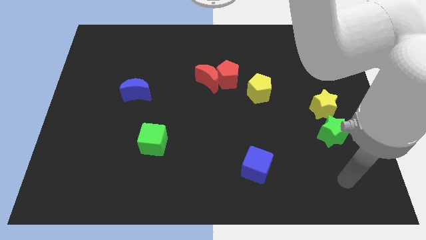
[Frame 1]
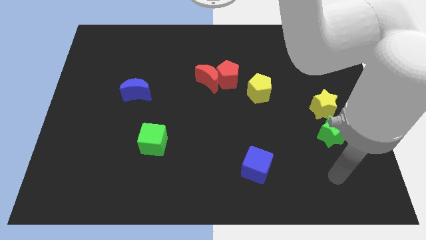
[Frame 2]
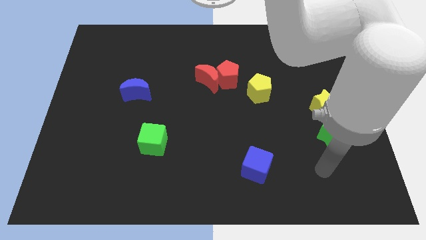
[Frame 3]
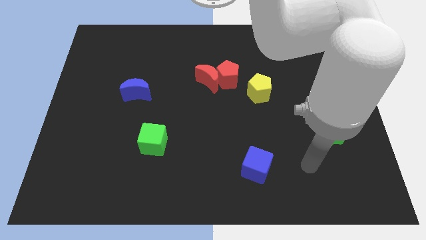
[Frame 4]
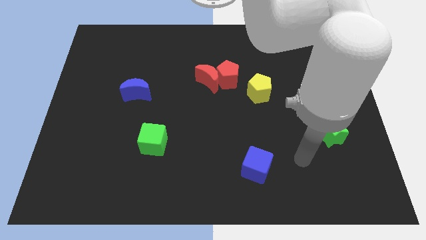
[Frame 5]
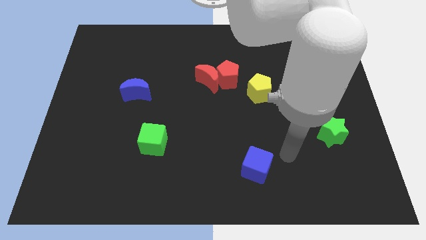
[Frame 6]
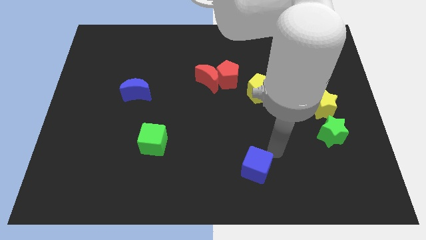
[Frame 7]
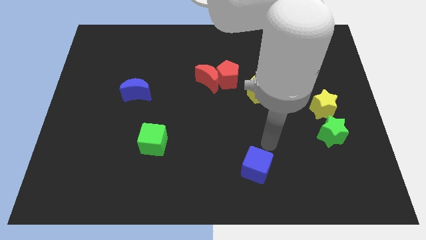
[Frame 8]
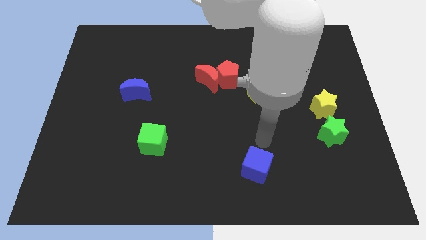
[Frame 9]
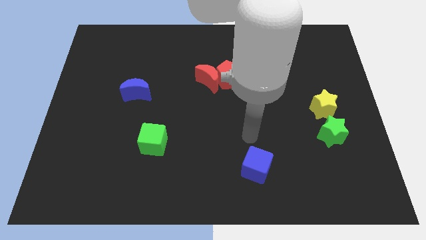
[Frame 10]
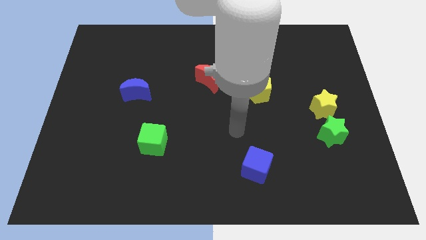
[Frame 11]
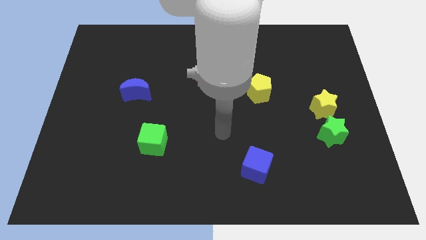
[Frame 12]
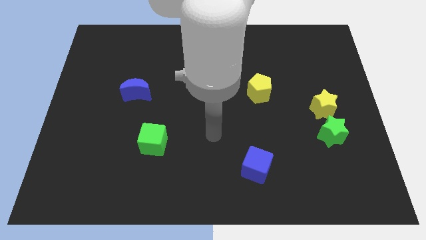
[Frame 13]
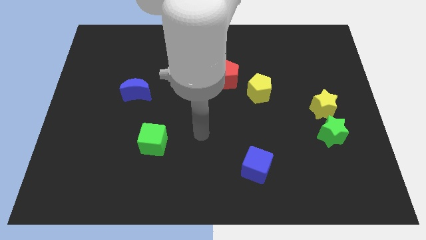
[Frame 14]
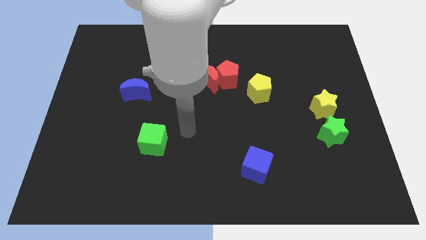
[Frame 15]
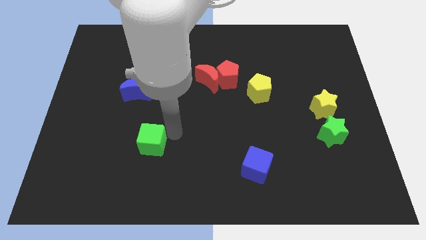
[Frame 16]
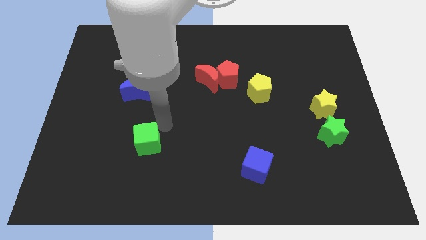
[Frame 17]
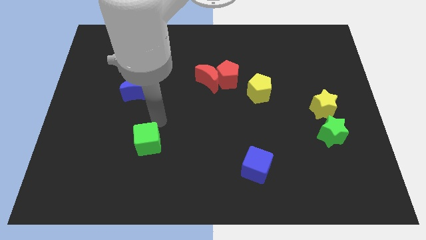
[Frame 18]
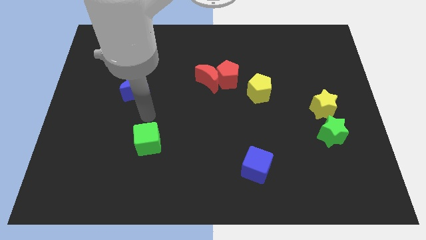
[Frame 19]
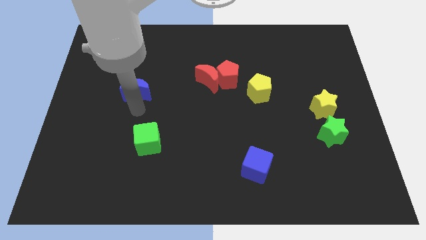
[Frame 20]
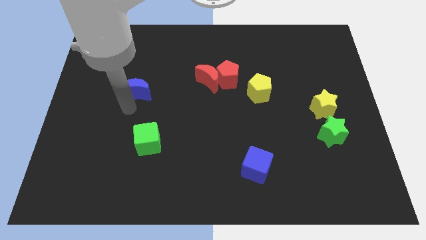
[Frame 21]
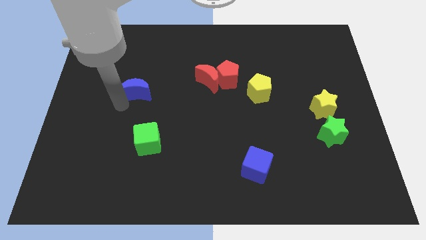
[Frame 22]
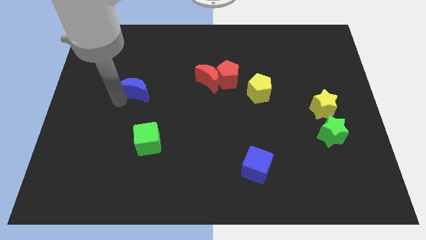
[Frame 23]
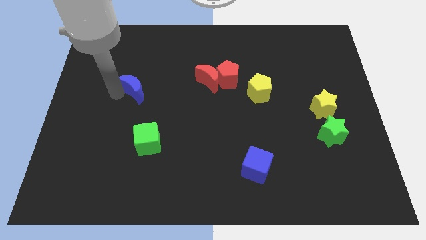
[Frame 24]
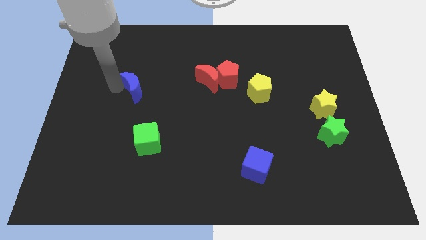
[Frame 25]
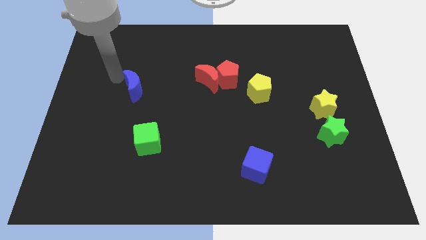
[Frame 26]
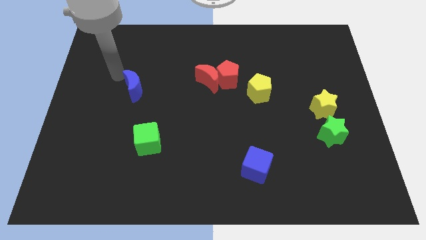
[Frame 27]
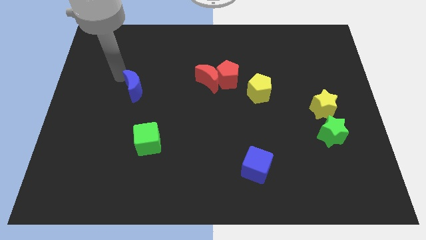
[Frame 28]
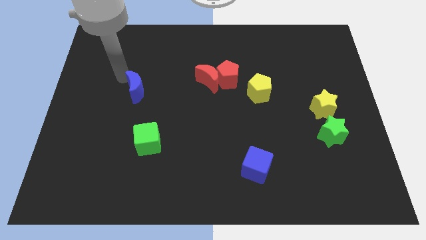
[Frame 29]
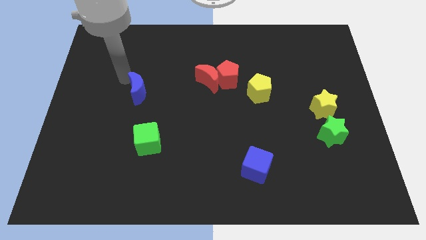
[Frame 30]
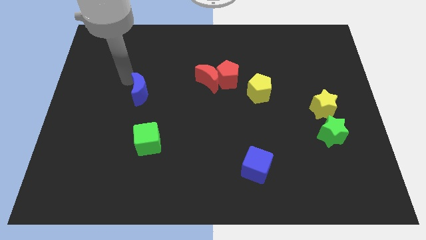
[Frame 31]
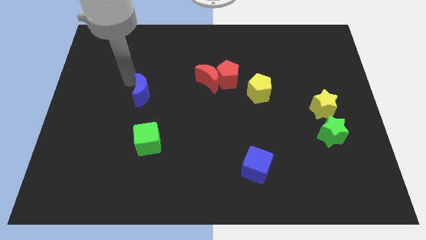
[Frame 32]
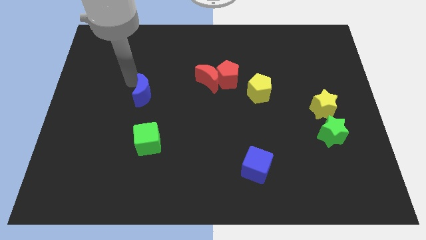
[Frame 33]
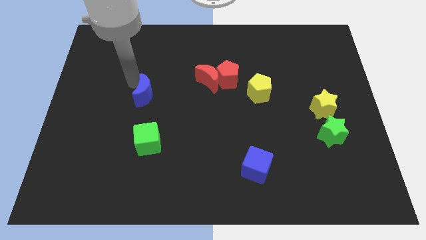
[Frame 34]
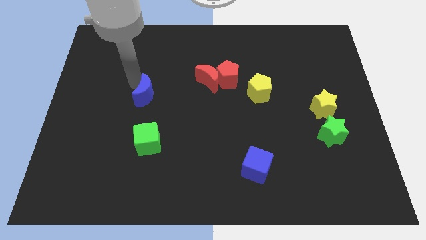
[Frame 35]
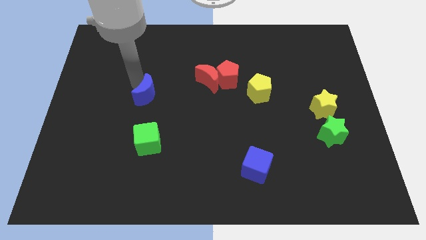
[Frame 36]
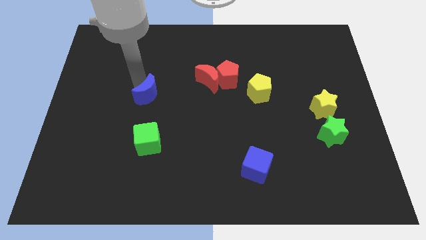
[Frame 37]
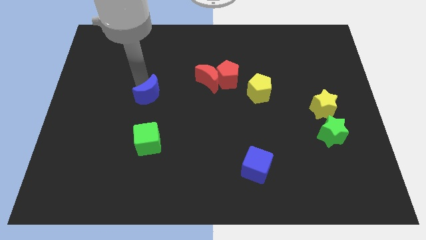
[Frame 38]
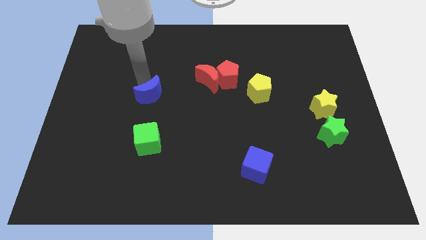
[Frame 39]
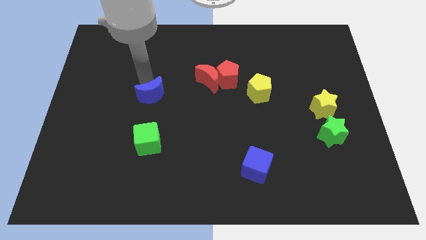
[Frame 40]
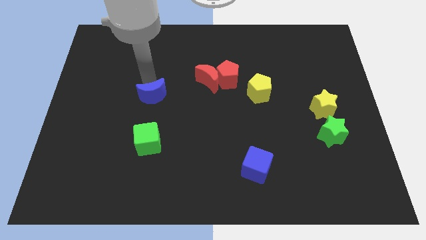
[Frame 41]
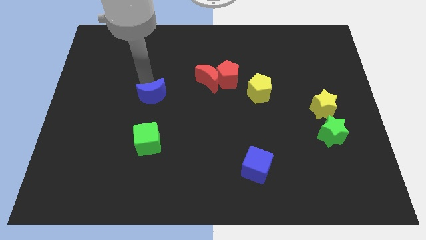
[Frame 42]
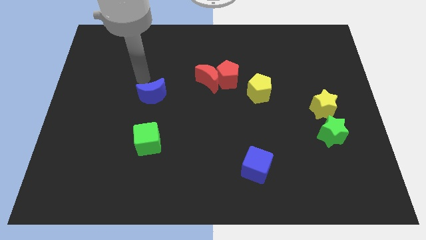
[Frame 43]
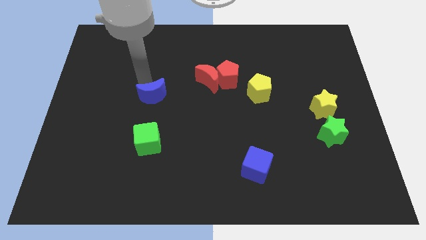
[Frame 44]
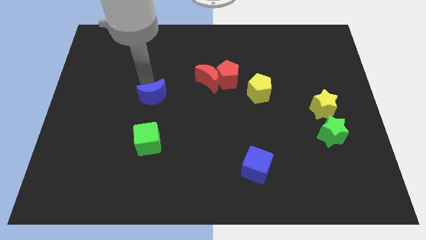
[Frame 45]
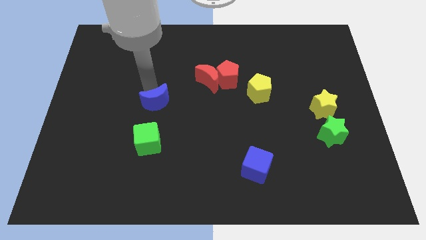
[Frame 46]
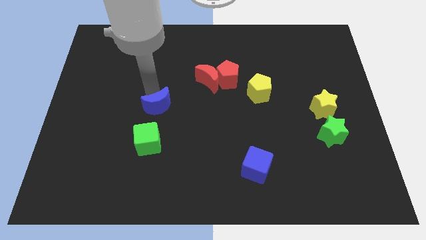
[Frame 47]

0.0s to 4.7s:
slide the blue moon down and to the right diagonally a little

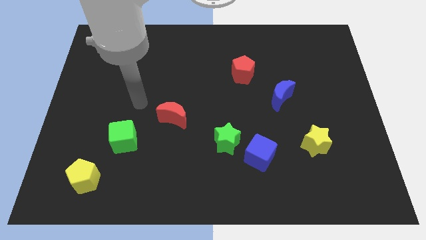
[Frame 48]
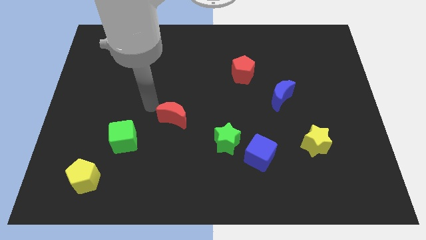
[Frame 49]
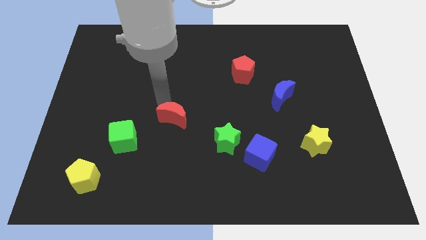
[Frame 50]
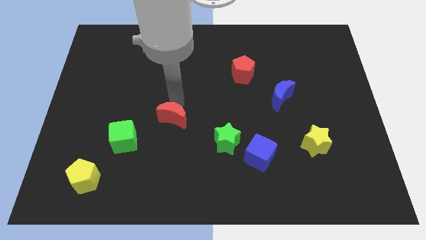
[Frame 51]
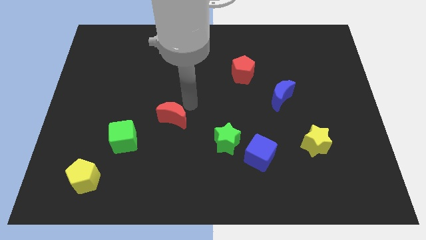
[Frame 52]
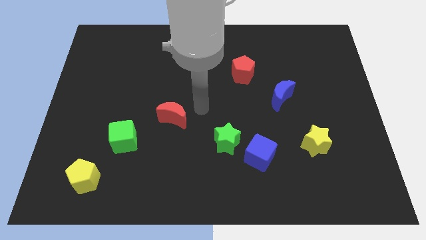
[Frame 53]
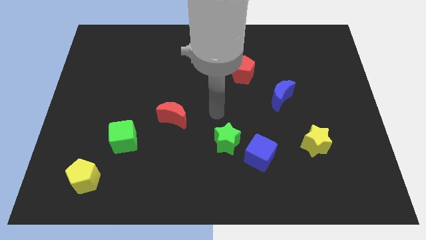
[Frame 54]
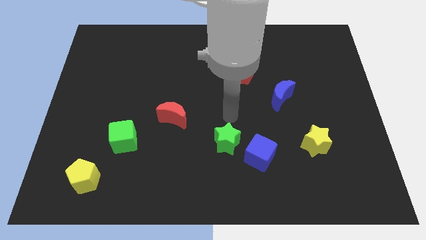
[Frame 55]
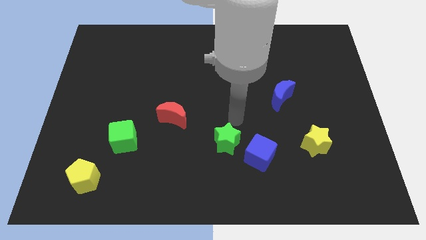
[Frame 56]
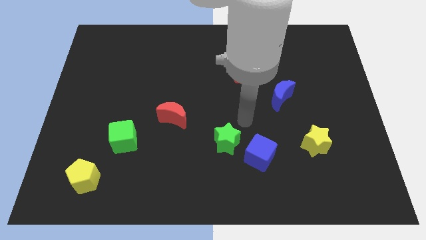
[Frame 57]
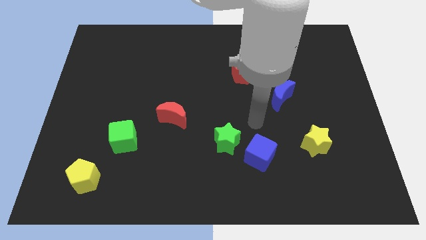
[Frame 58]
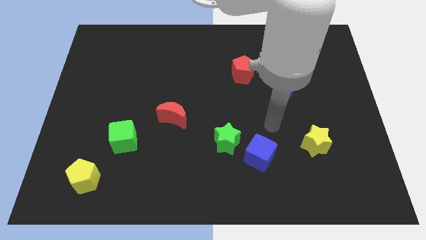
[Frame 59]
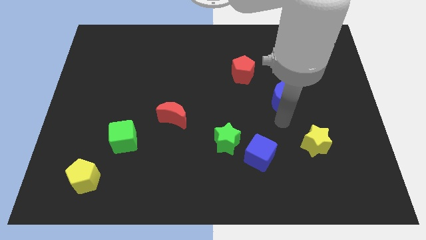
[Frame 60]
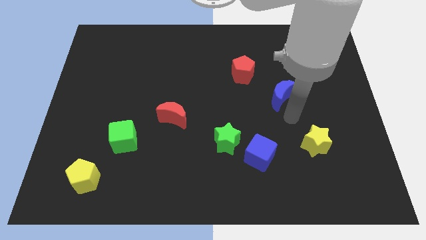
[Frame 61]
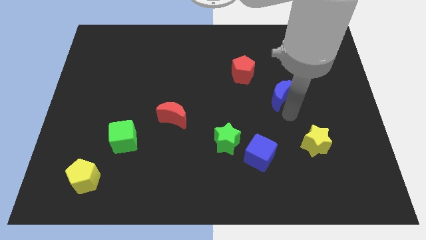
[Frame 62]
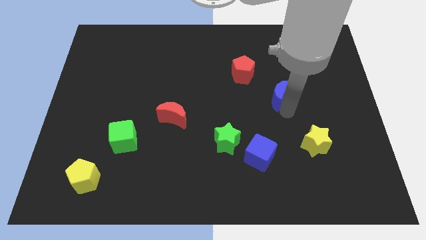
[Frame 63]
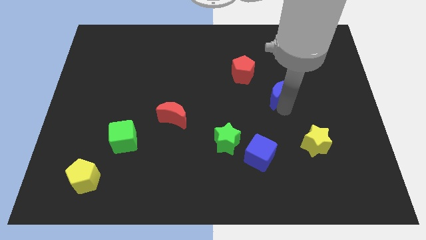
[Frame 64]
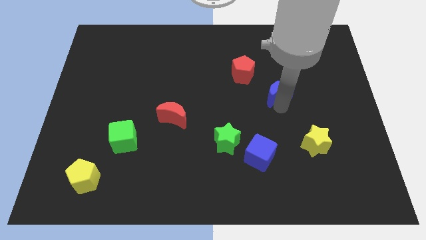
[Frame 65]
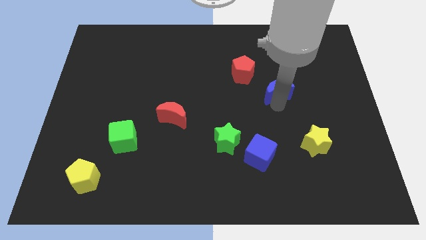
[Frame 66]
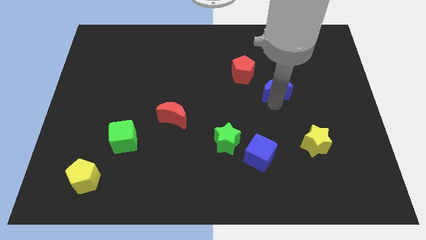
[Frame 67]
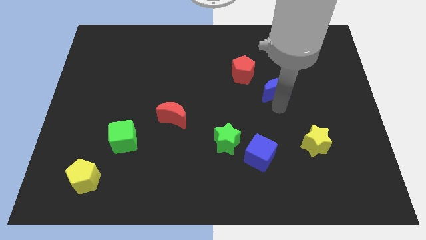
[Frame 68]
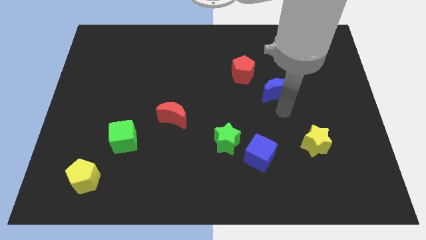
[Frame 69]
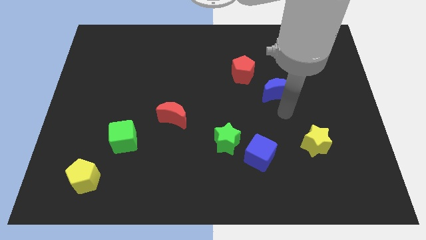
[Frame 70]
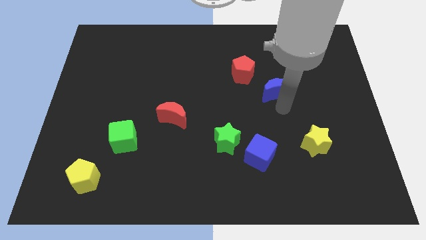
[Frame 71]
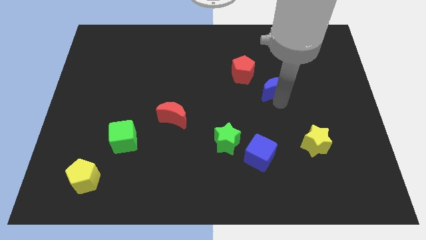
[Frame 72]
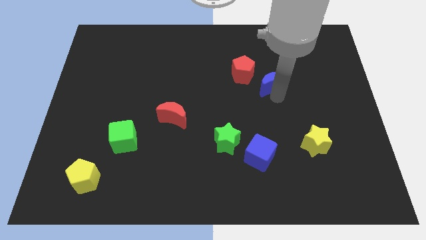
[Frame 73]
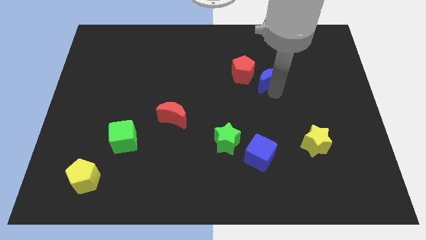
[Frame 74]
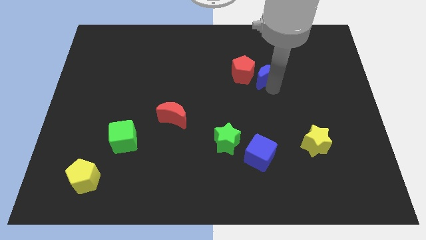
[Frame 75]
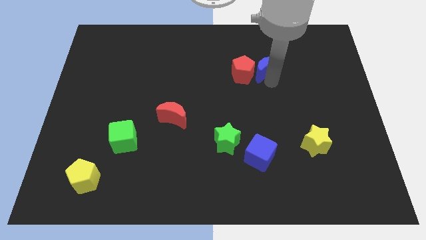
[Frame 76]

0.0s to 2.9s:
push the blue moon up and then left slightly

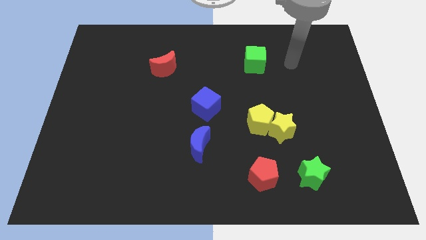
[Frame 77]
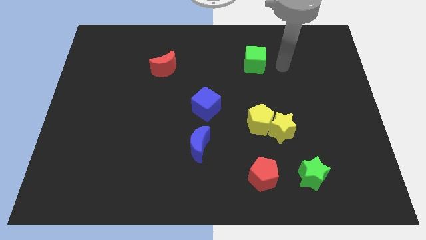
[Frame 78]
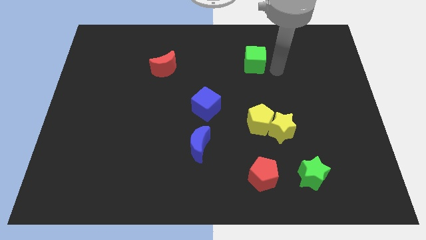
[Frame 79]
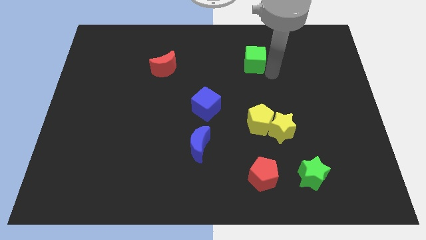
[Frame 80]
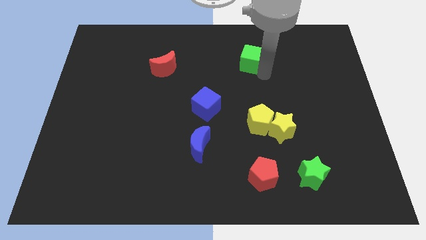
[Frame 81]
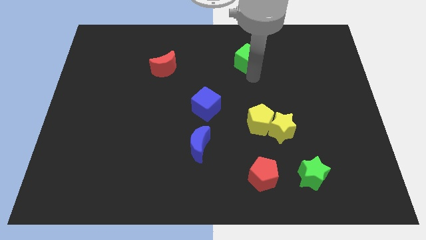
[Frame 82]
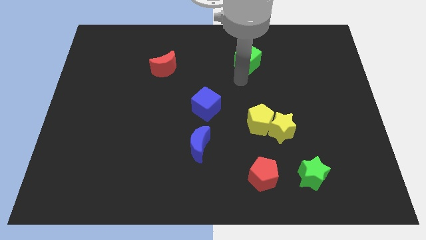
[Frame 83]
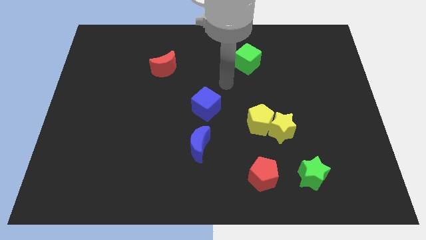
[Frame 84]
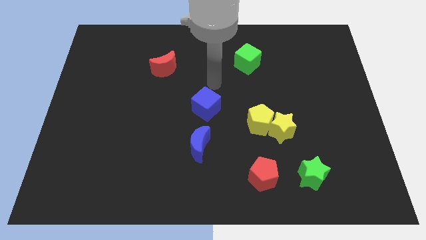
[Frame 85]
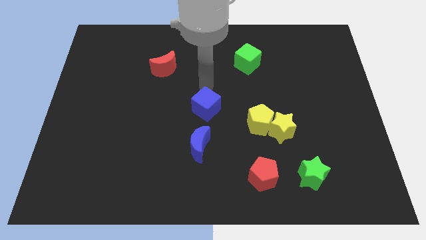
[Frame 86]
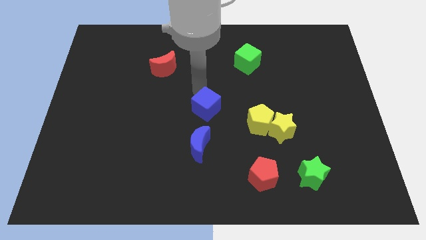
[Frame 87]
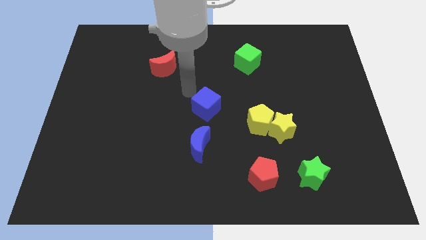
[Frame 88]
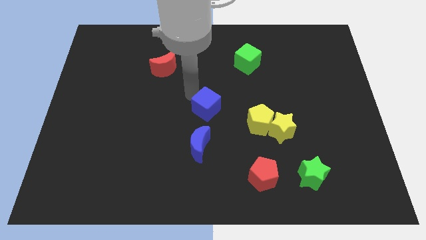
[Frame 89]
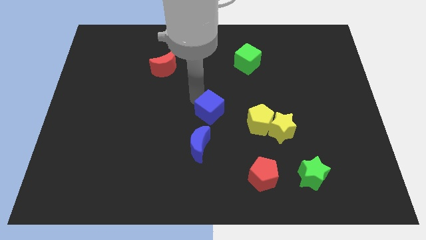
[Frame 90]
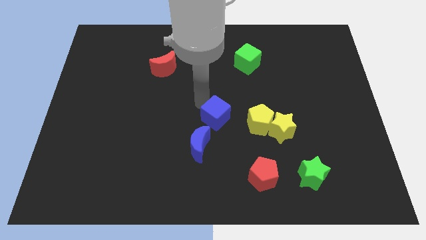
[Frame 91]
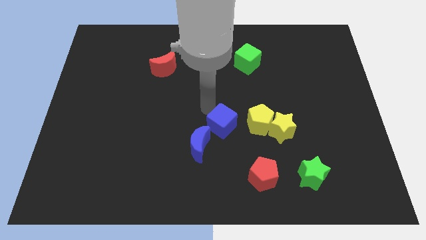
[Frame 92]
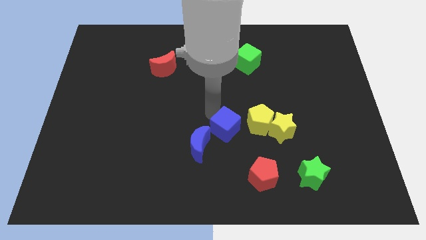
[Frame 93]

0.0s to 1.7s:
slightly push the blue cube downwards and right diagonally
